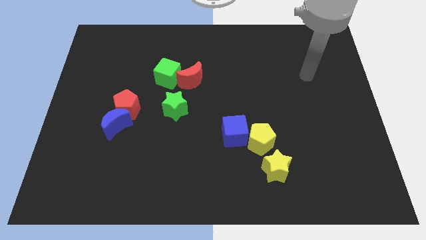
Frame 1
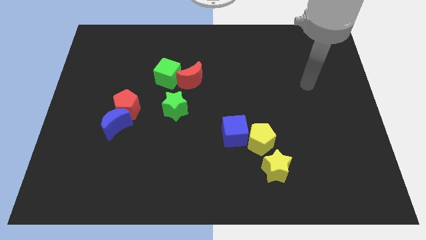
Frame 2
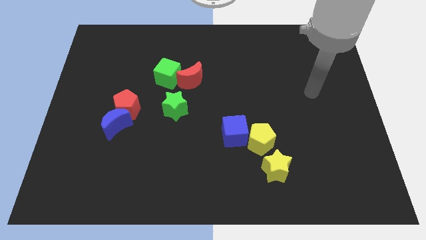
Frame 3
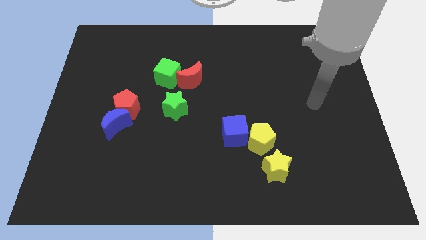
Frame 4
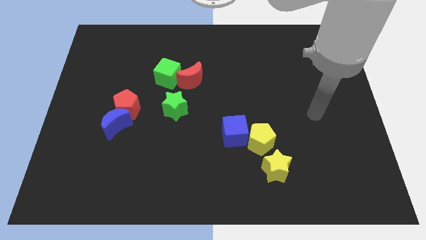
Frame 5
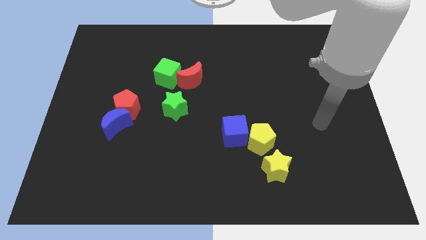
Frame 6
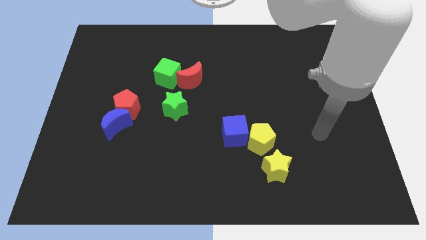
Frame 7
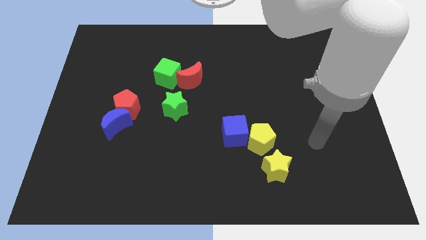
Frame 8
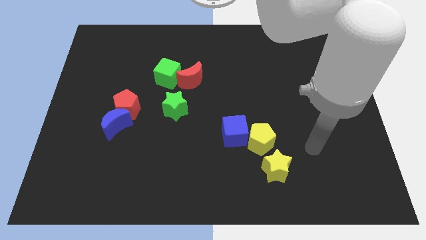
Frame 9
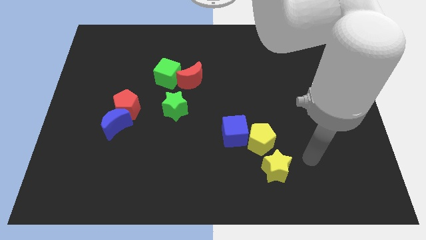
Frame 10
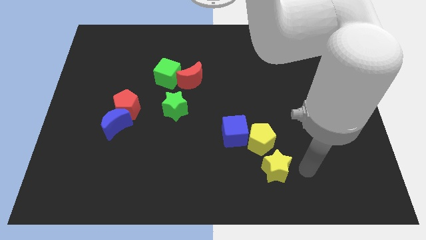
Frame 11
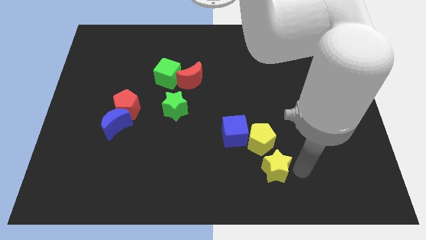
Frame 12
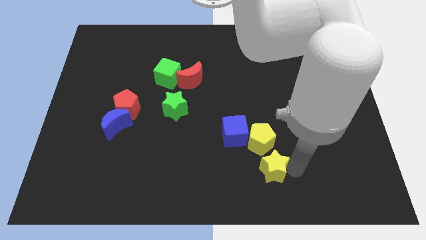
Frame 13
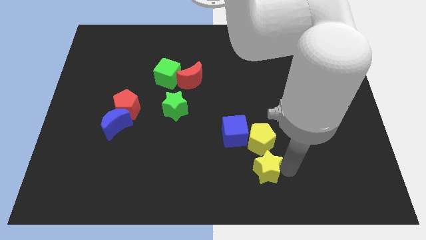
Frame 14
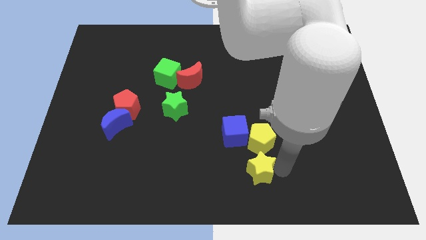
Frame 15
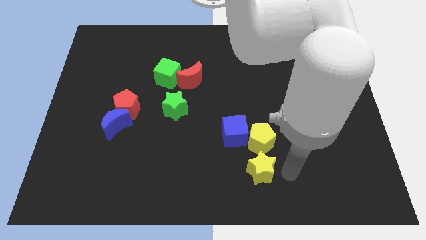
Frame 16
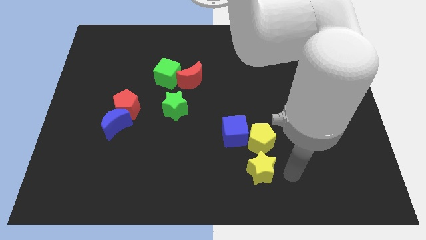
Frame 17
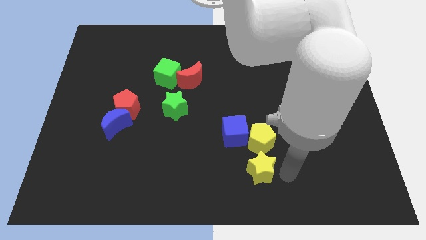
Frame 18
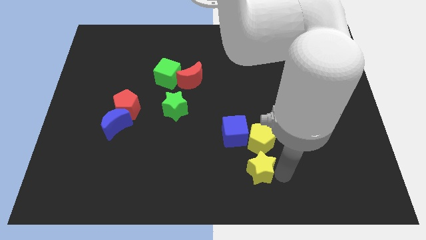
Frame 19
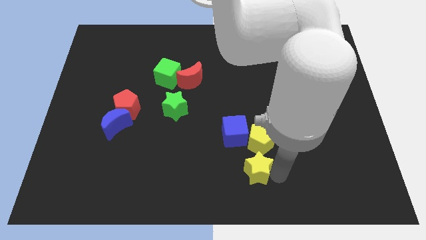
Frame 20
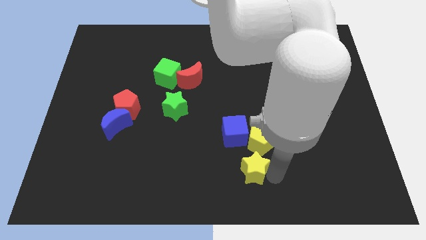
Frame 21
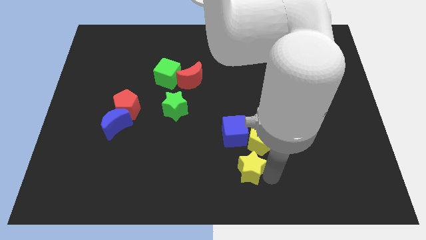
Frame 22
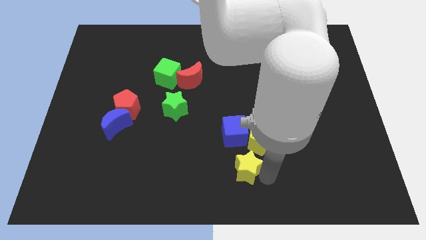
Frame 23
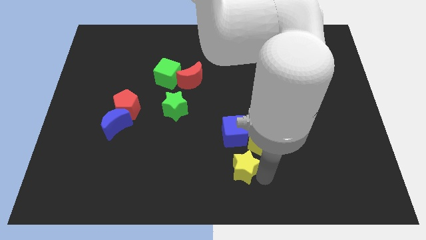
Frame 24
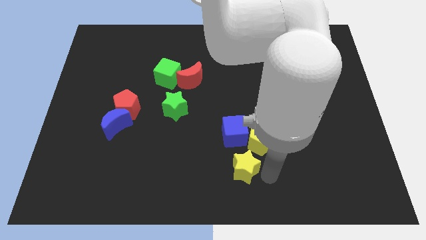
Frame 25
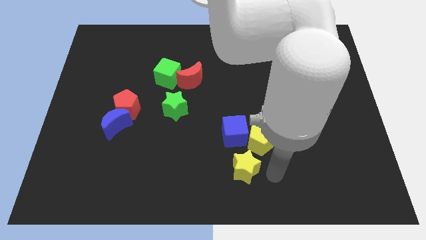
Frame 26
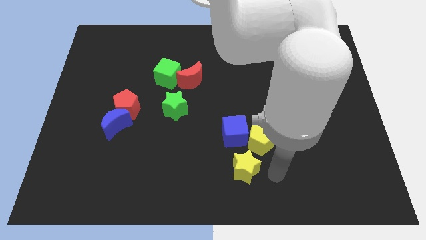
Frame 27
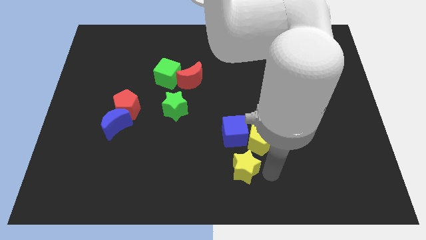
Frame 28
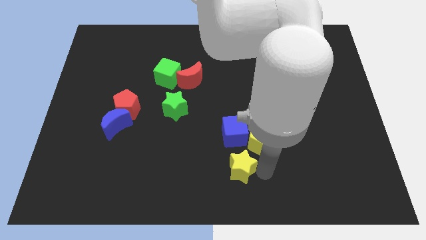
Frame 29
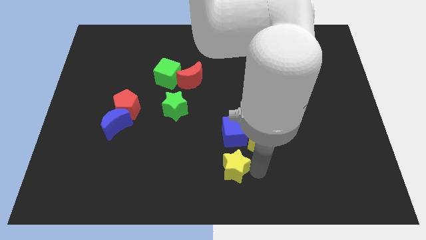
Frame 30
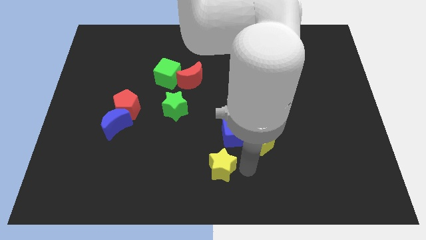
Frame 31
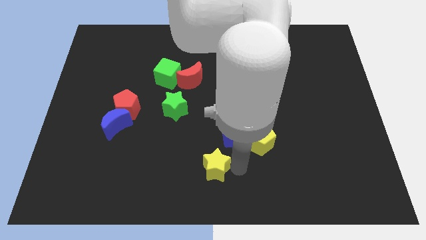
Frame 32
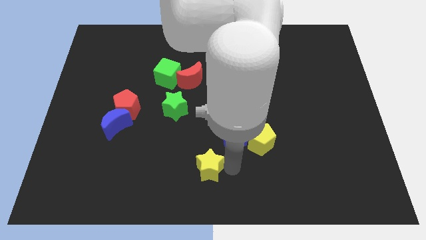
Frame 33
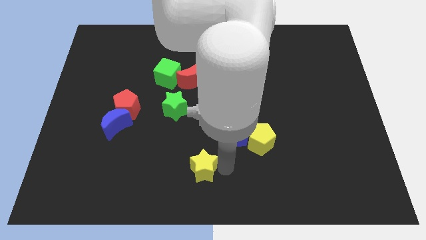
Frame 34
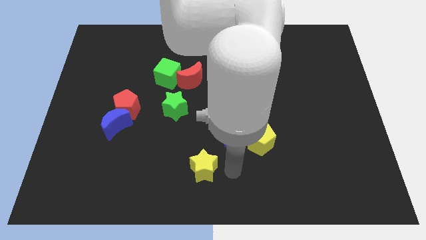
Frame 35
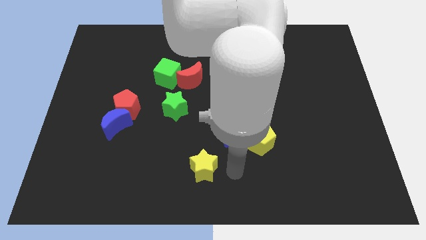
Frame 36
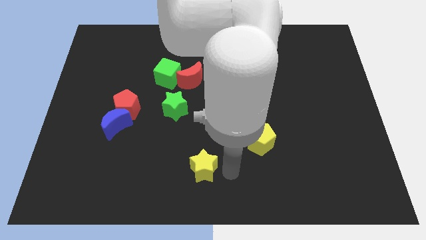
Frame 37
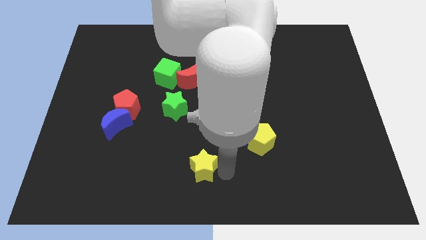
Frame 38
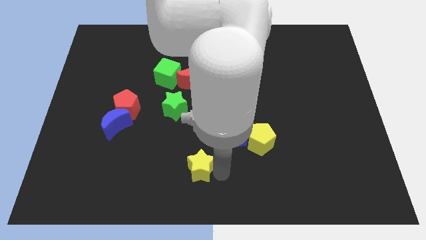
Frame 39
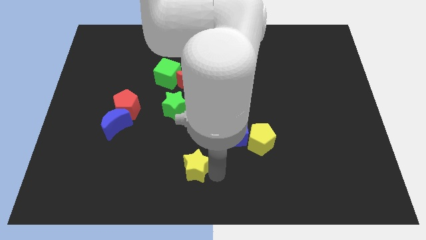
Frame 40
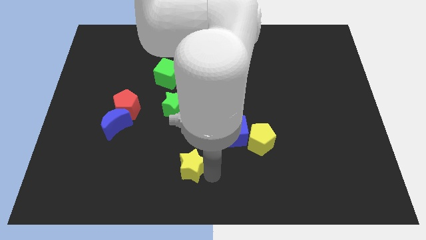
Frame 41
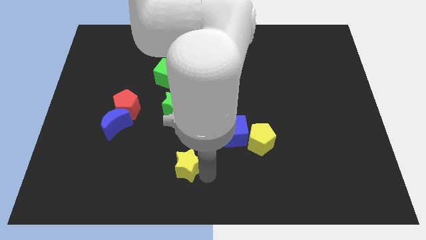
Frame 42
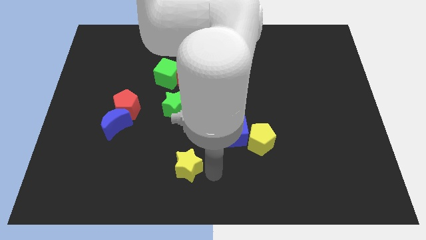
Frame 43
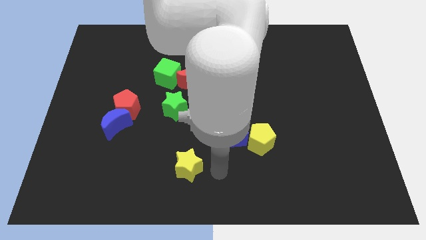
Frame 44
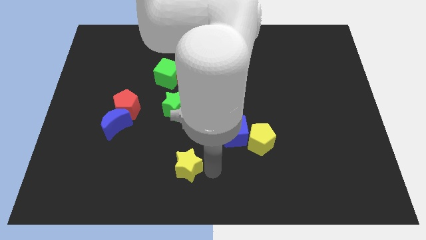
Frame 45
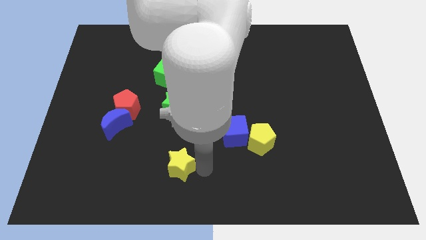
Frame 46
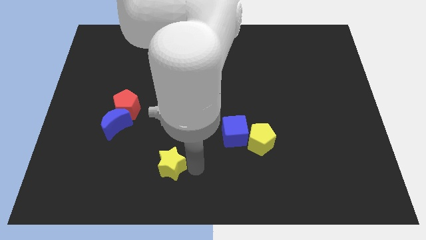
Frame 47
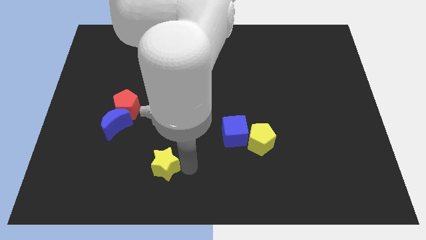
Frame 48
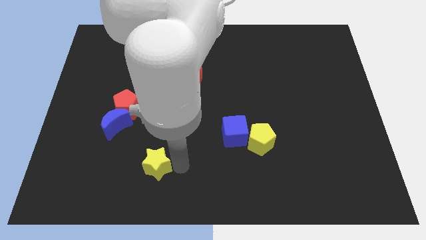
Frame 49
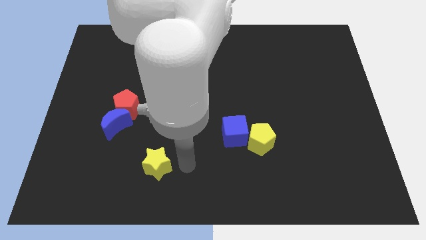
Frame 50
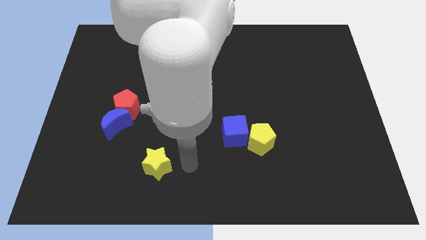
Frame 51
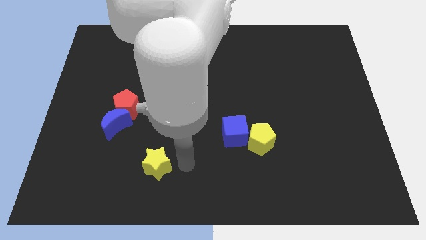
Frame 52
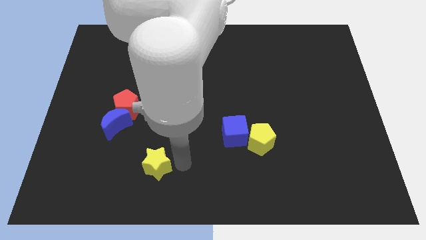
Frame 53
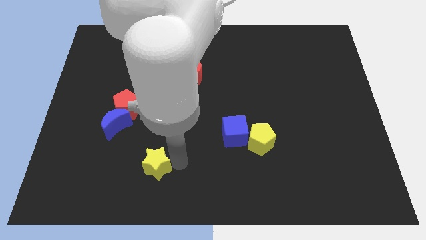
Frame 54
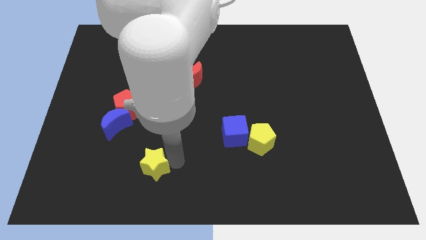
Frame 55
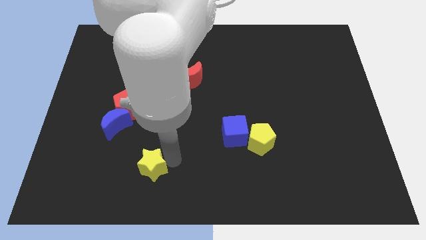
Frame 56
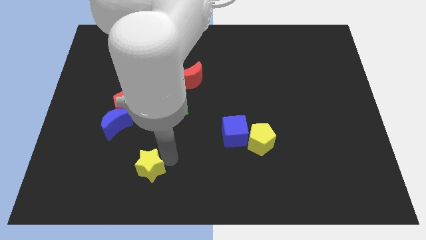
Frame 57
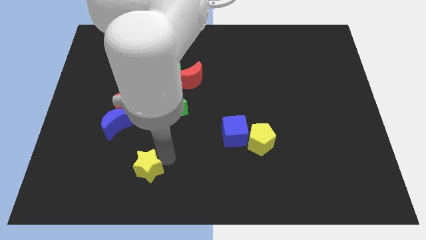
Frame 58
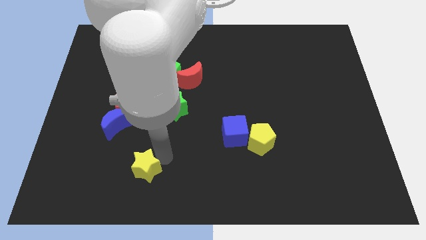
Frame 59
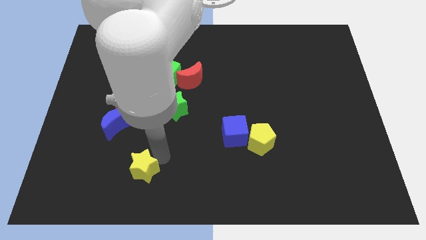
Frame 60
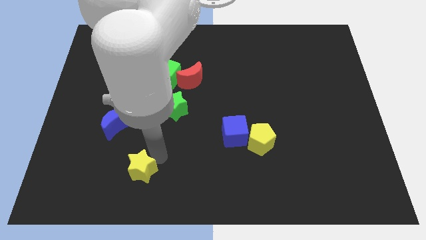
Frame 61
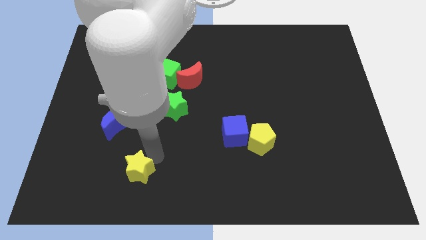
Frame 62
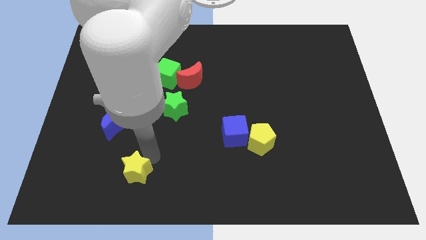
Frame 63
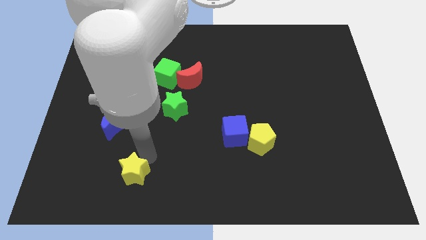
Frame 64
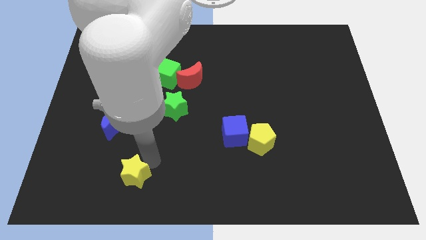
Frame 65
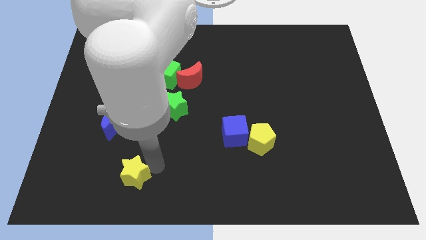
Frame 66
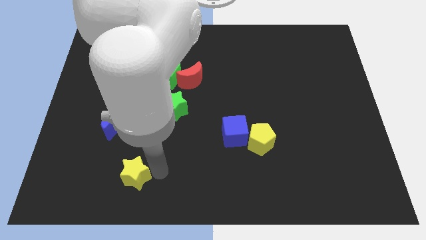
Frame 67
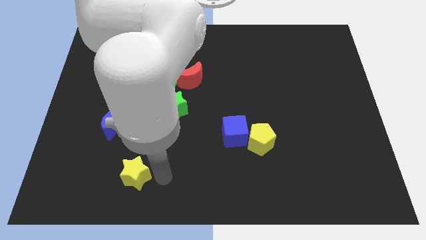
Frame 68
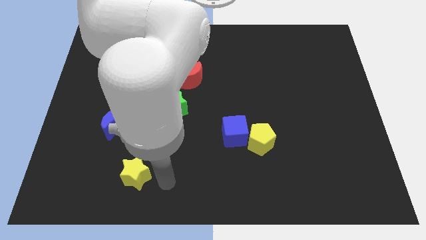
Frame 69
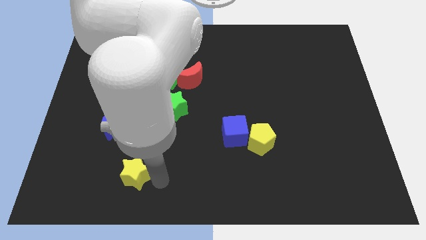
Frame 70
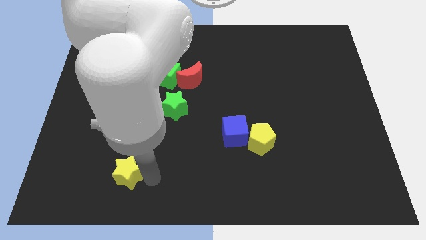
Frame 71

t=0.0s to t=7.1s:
put the yellow star below the blue moon
